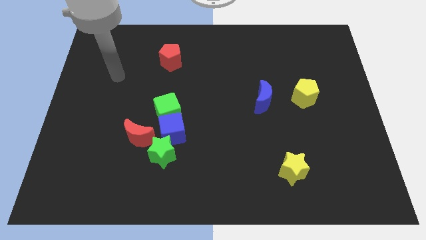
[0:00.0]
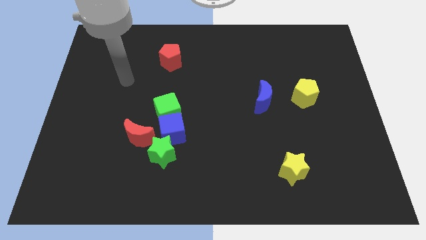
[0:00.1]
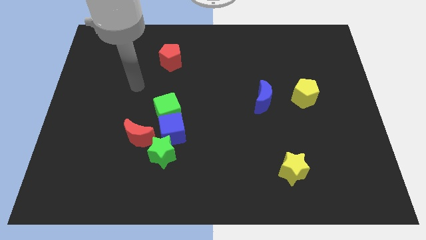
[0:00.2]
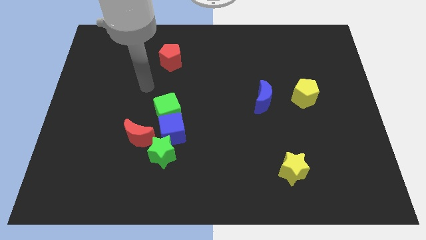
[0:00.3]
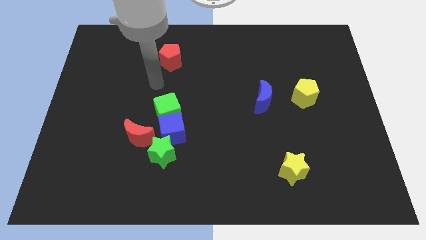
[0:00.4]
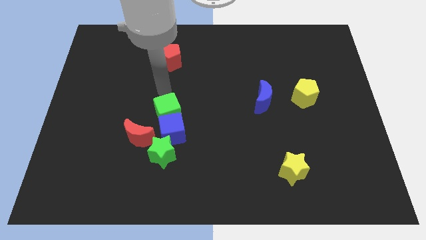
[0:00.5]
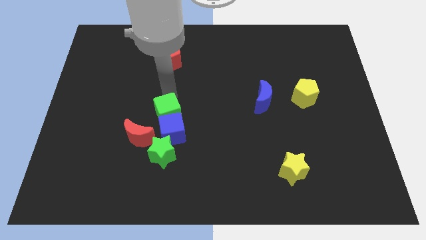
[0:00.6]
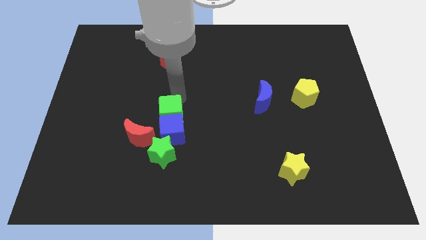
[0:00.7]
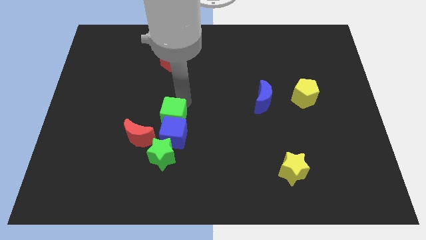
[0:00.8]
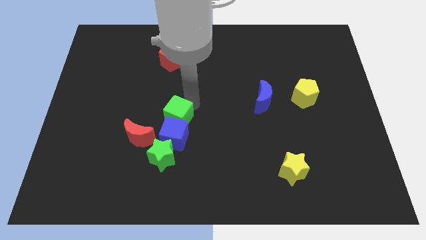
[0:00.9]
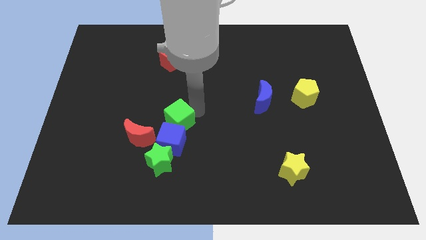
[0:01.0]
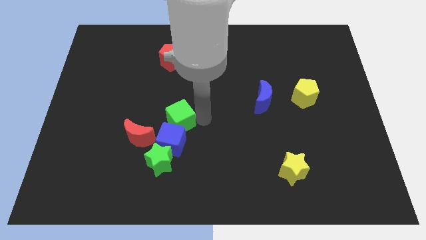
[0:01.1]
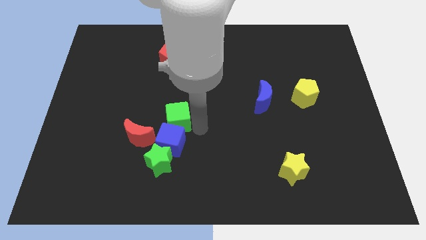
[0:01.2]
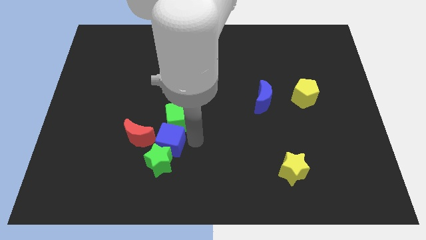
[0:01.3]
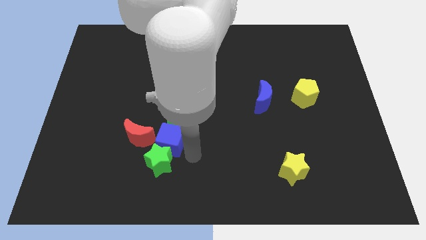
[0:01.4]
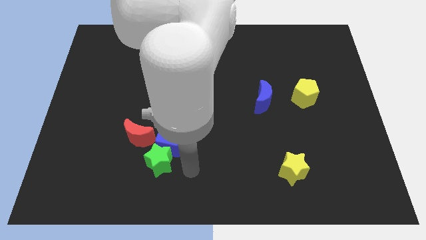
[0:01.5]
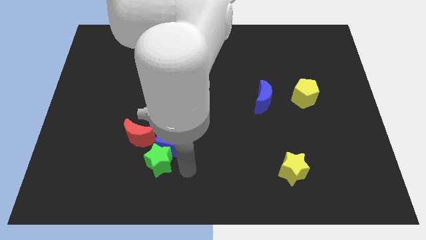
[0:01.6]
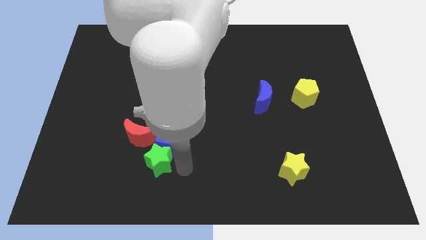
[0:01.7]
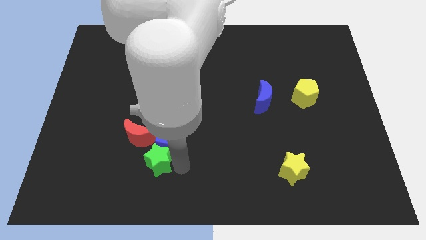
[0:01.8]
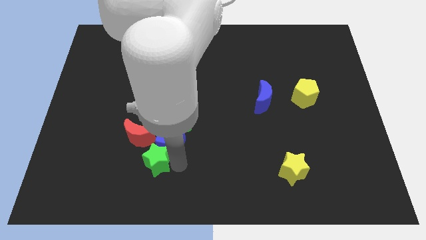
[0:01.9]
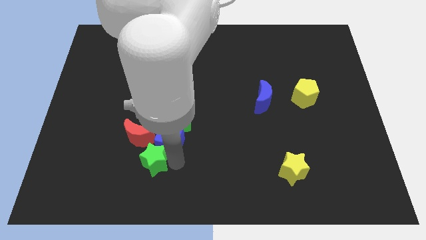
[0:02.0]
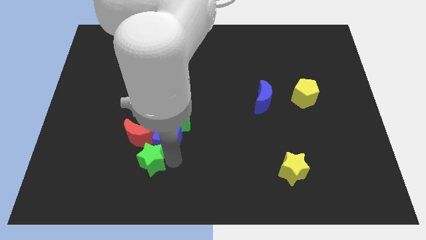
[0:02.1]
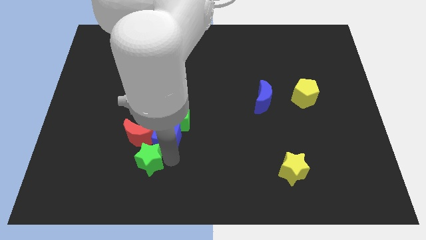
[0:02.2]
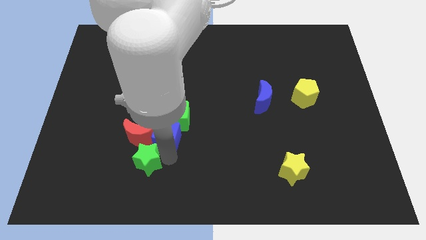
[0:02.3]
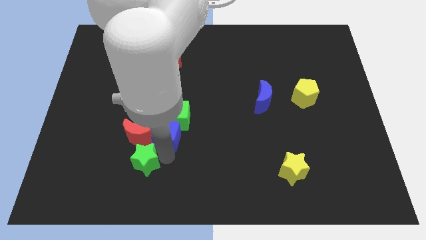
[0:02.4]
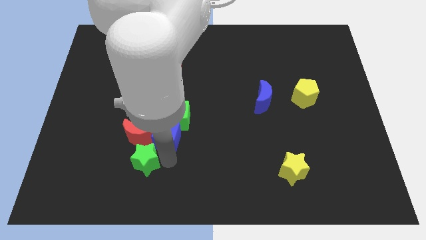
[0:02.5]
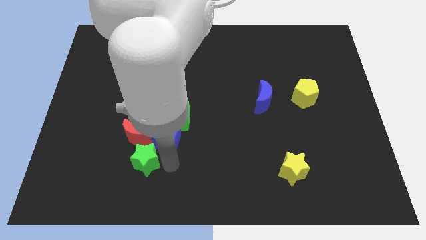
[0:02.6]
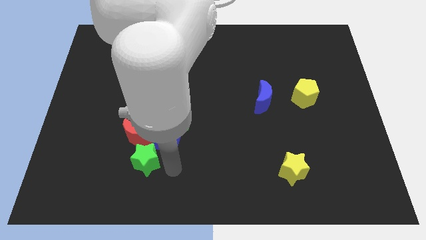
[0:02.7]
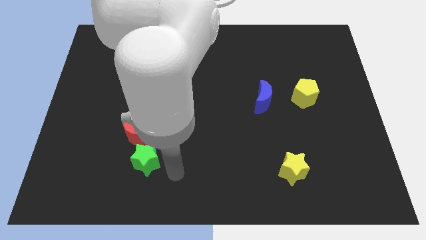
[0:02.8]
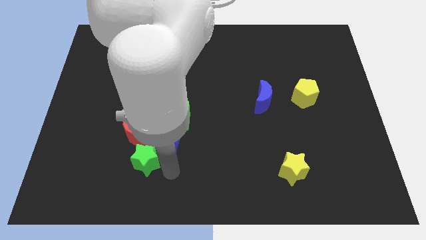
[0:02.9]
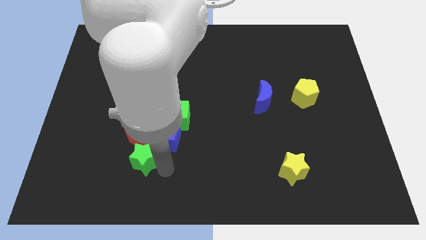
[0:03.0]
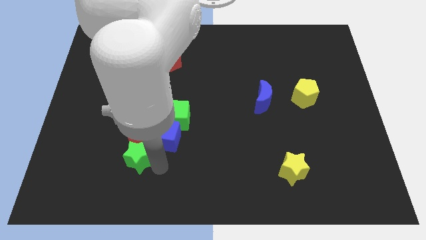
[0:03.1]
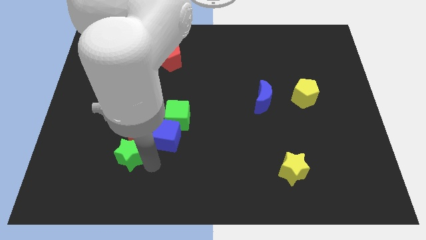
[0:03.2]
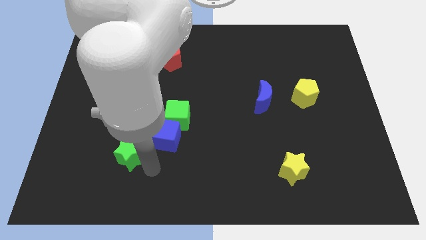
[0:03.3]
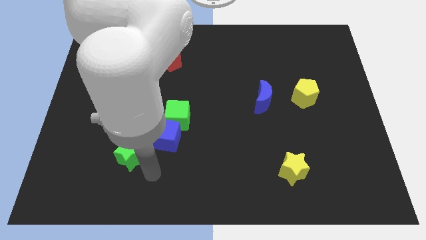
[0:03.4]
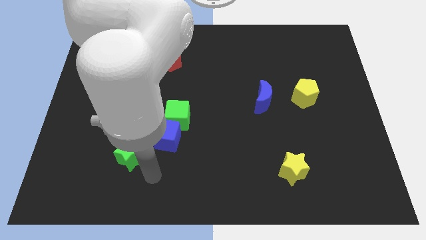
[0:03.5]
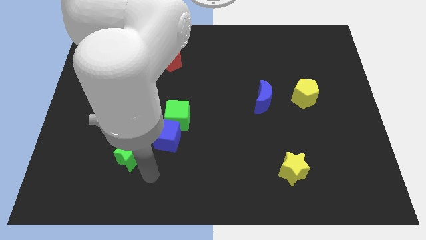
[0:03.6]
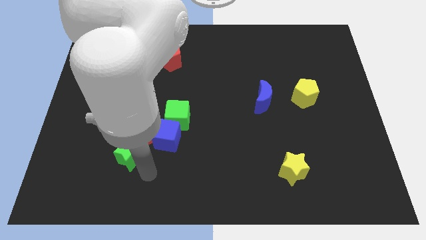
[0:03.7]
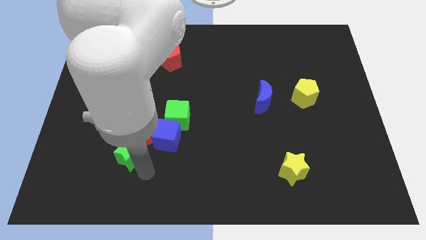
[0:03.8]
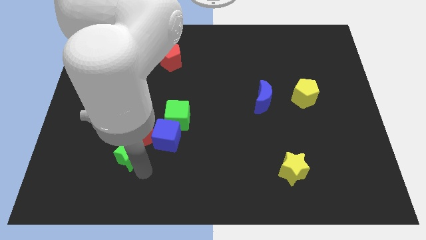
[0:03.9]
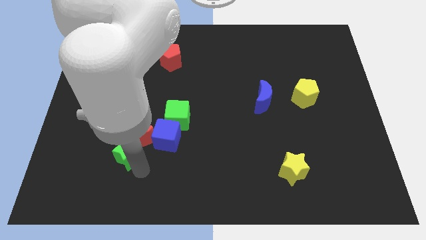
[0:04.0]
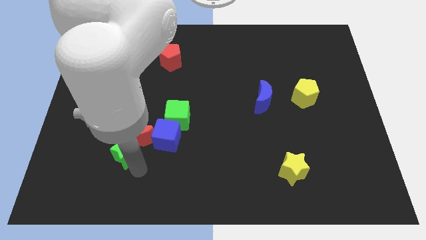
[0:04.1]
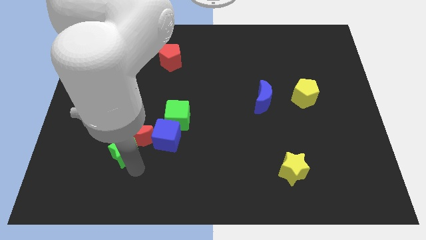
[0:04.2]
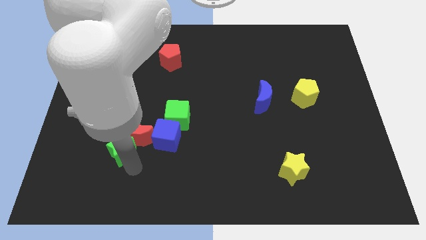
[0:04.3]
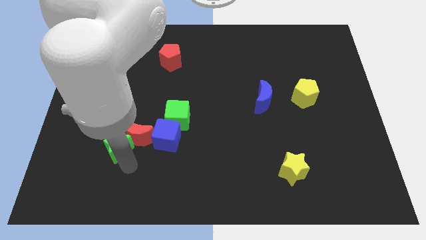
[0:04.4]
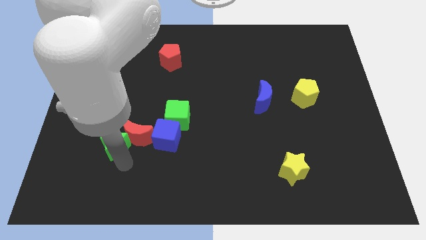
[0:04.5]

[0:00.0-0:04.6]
slightly slide the green star upwards and to the left

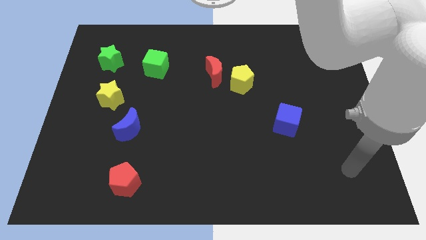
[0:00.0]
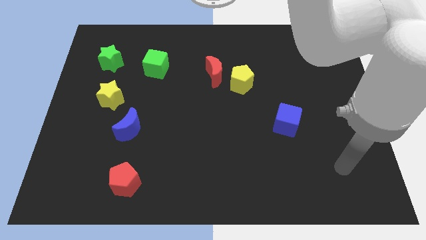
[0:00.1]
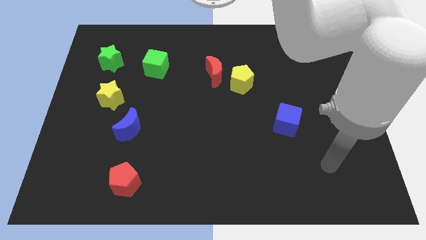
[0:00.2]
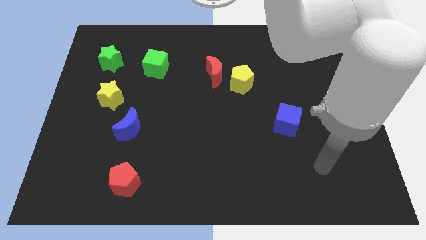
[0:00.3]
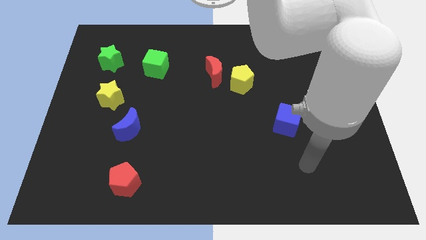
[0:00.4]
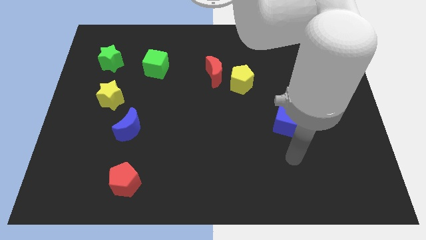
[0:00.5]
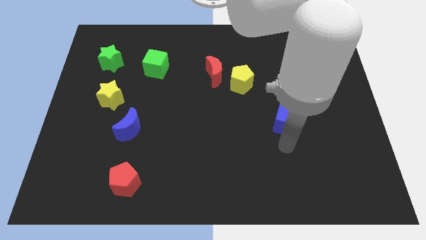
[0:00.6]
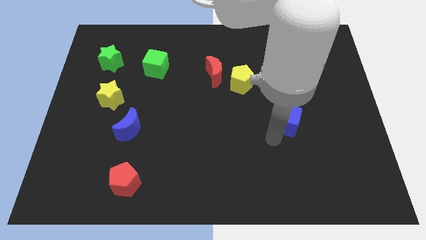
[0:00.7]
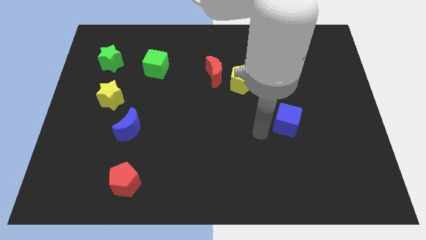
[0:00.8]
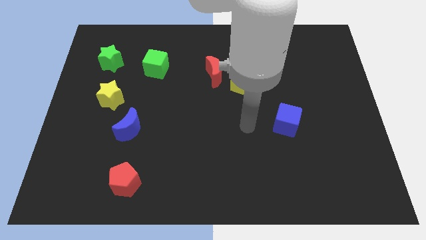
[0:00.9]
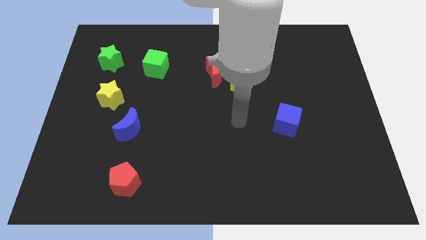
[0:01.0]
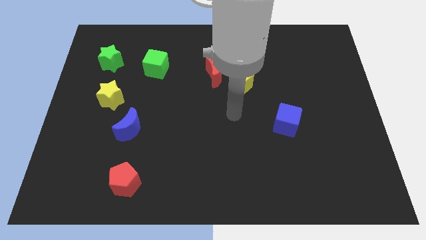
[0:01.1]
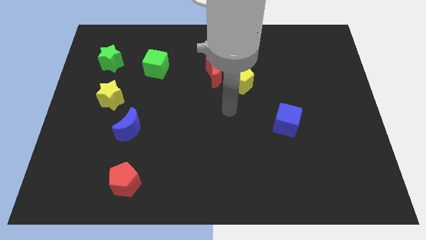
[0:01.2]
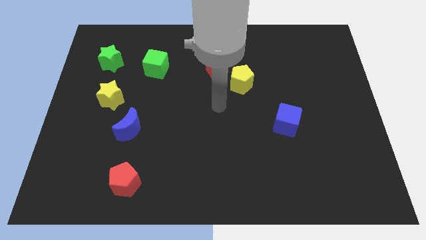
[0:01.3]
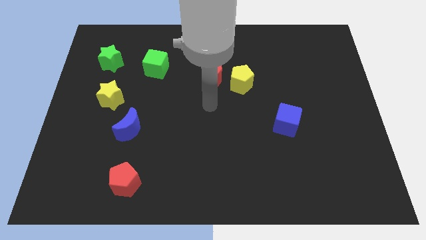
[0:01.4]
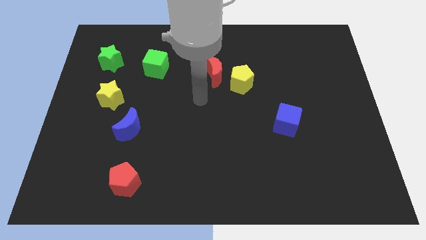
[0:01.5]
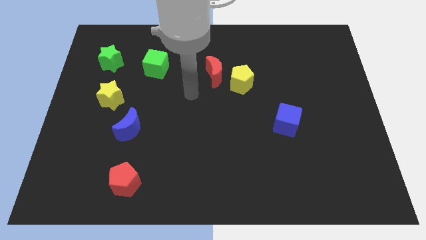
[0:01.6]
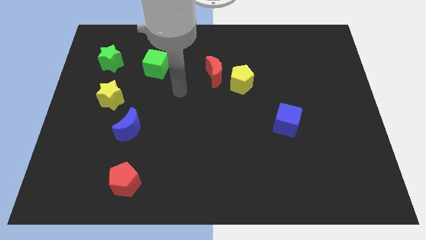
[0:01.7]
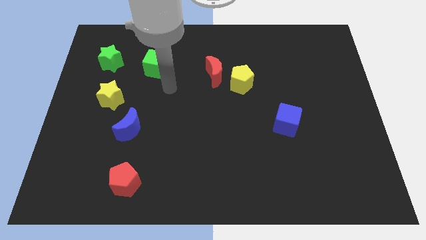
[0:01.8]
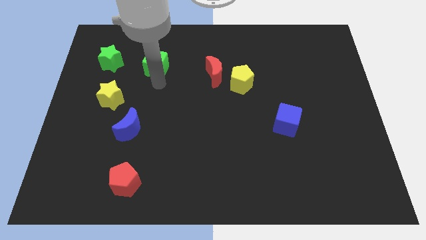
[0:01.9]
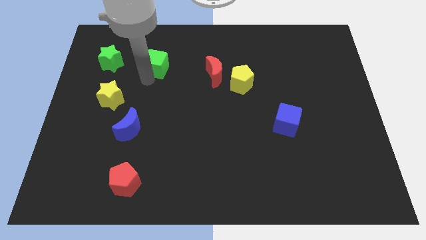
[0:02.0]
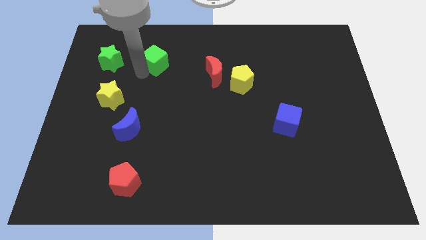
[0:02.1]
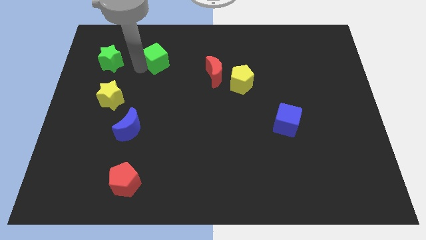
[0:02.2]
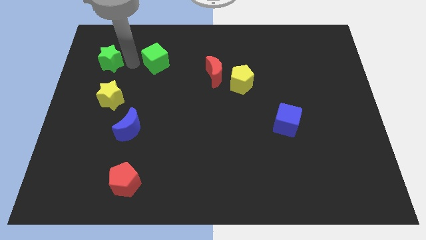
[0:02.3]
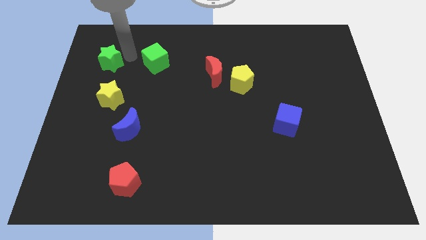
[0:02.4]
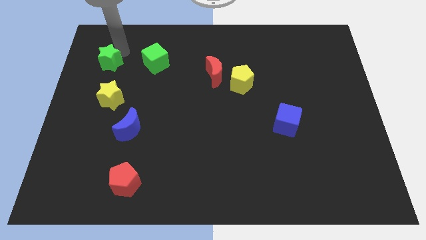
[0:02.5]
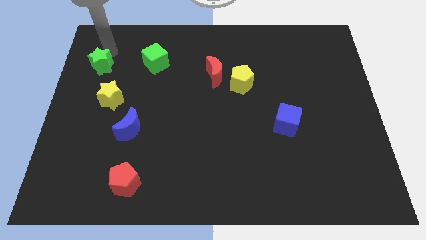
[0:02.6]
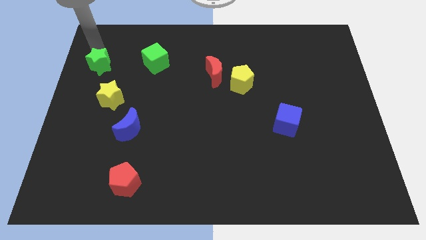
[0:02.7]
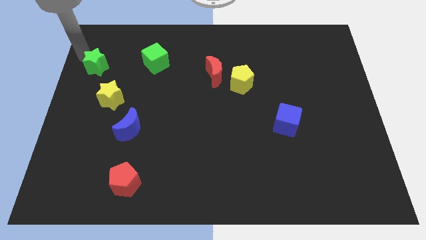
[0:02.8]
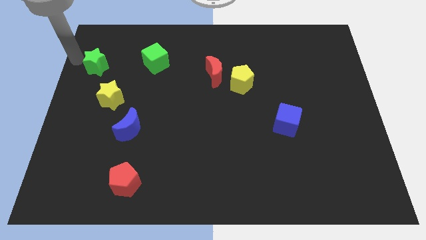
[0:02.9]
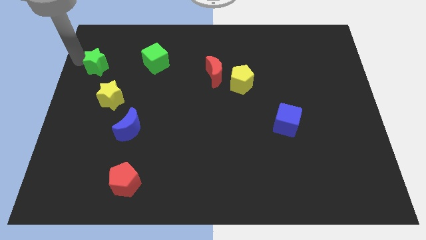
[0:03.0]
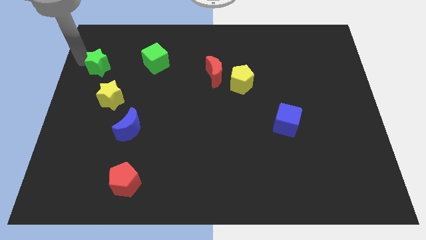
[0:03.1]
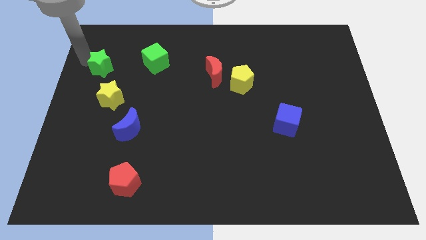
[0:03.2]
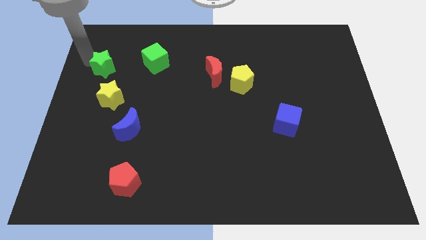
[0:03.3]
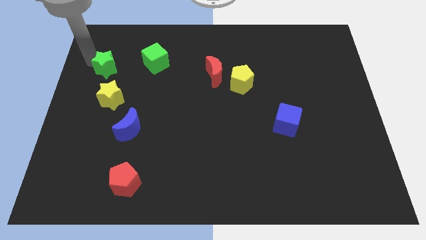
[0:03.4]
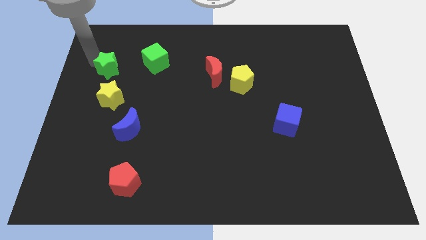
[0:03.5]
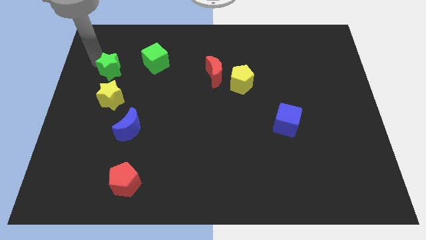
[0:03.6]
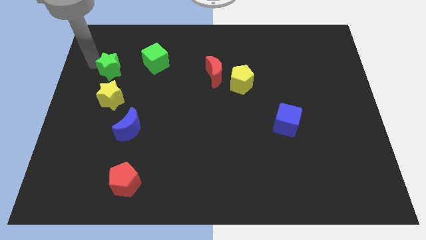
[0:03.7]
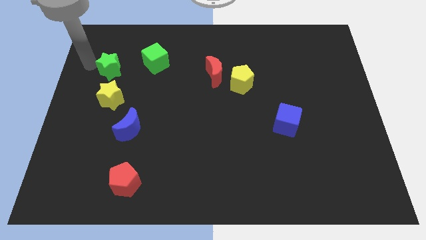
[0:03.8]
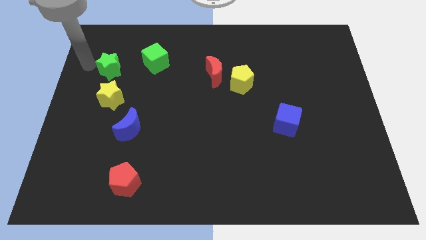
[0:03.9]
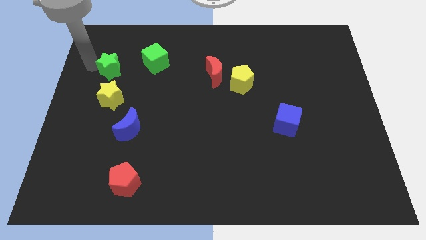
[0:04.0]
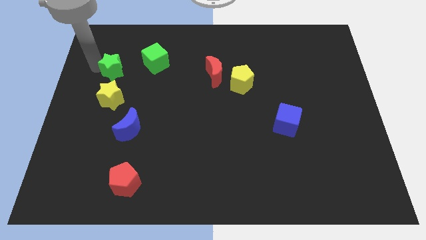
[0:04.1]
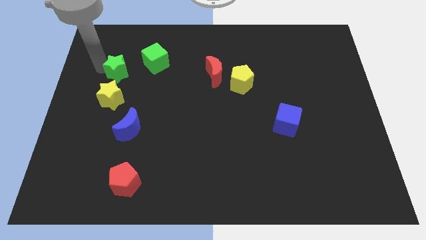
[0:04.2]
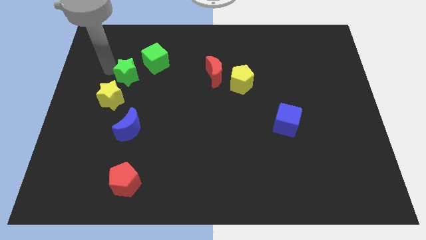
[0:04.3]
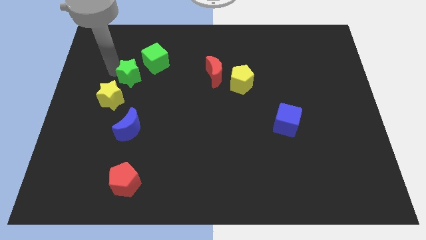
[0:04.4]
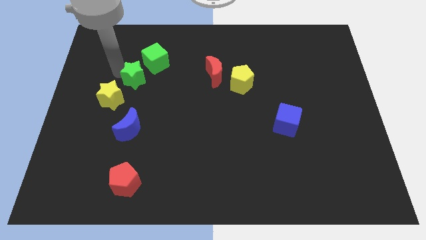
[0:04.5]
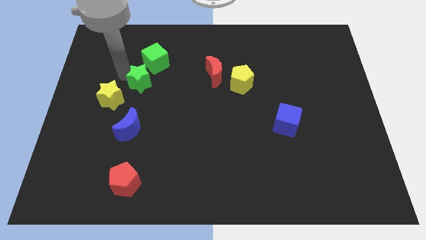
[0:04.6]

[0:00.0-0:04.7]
slightly slide the green star to the right
